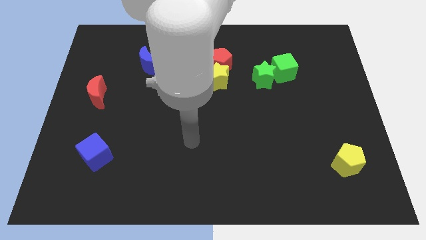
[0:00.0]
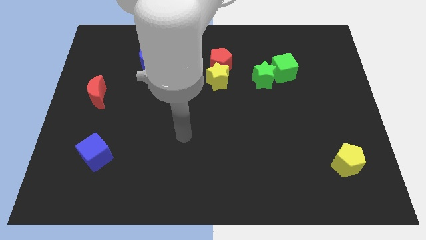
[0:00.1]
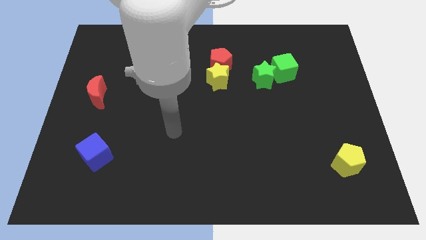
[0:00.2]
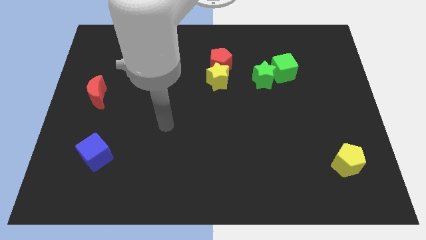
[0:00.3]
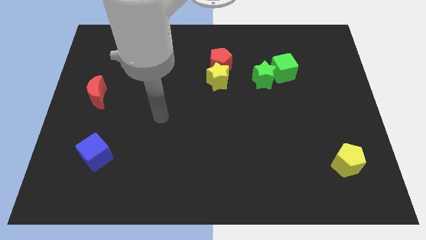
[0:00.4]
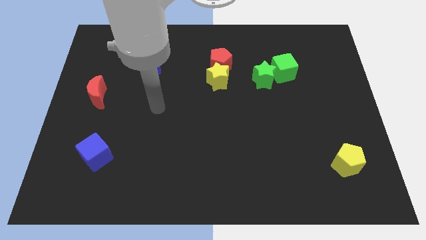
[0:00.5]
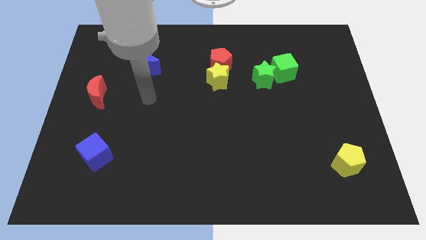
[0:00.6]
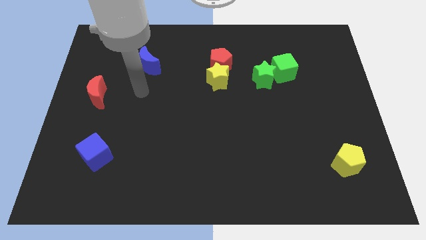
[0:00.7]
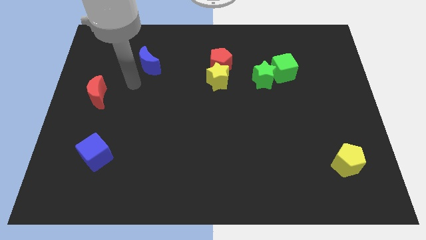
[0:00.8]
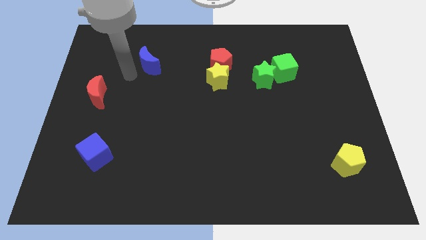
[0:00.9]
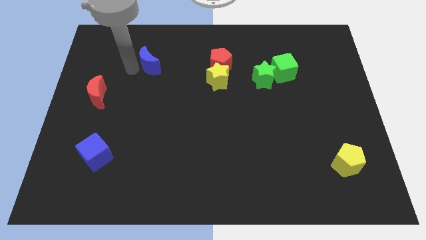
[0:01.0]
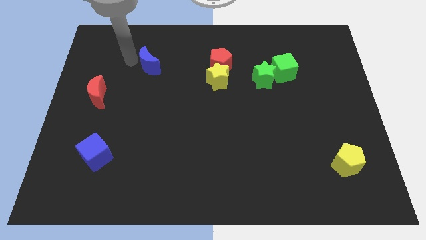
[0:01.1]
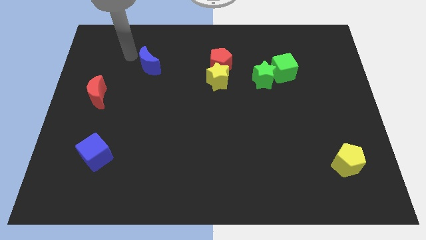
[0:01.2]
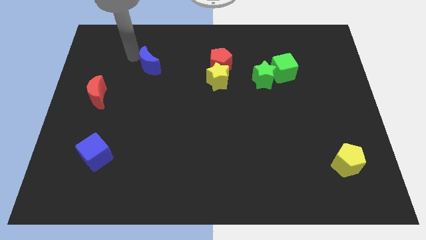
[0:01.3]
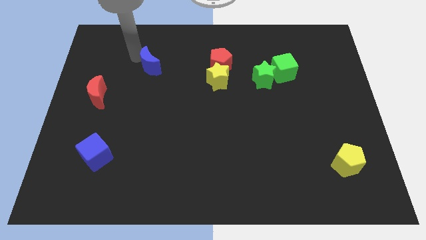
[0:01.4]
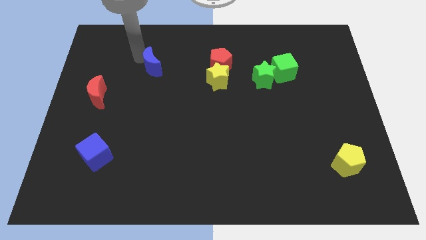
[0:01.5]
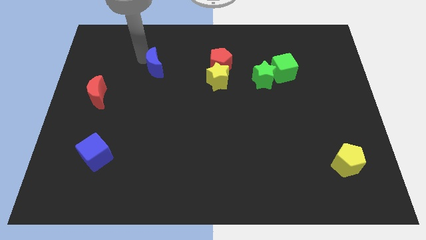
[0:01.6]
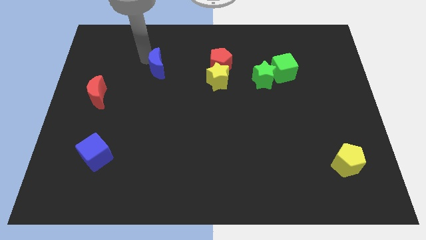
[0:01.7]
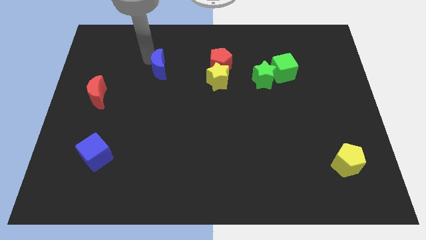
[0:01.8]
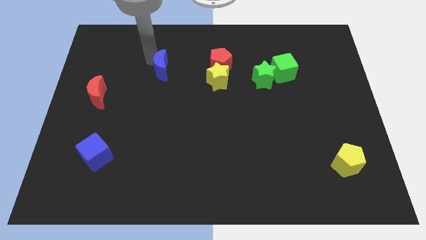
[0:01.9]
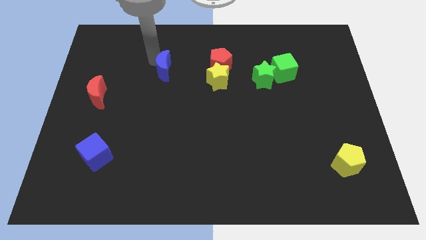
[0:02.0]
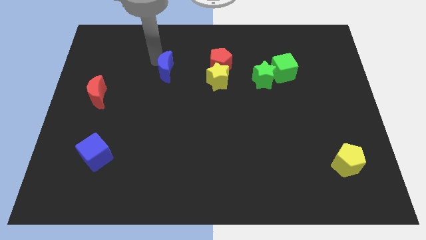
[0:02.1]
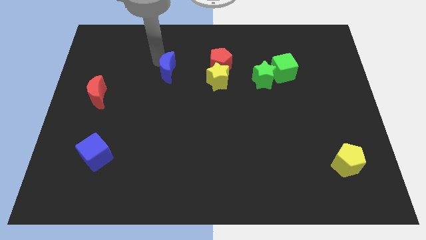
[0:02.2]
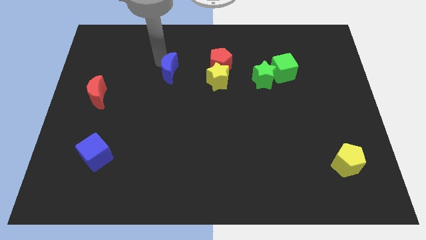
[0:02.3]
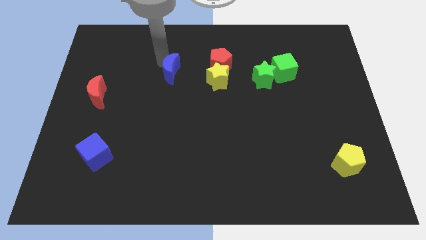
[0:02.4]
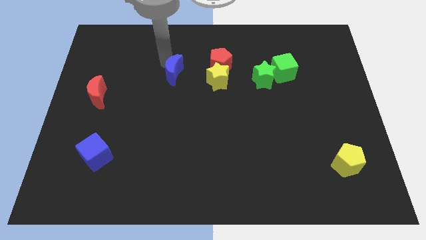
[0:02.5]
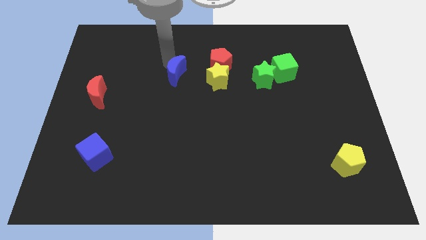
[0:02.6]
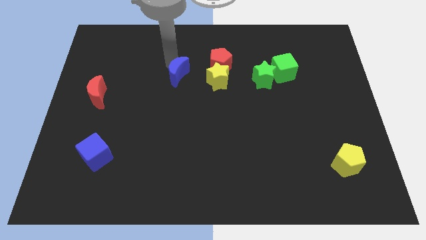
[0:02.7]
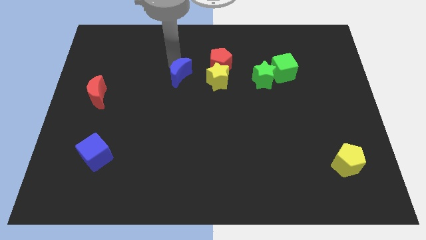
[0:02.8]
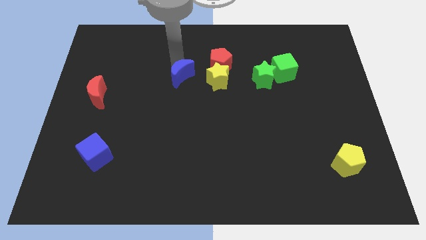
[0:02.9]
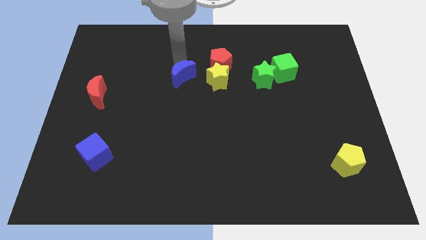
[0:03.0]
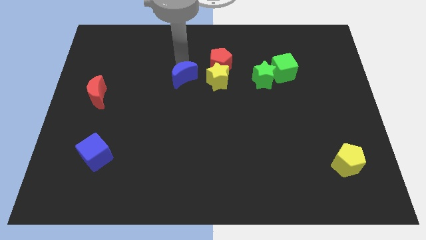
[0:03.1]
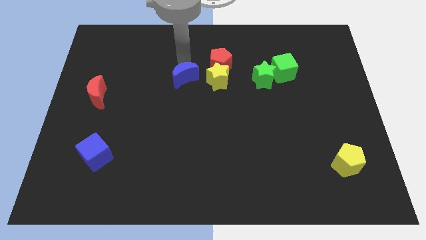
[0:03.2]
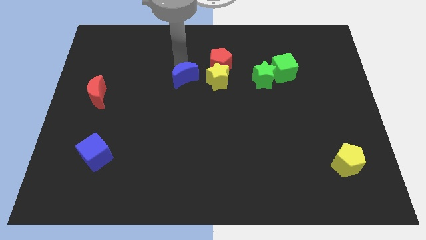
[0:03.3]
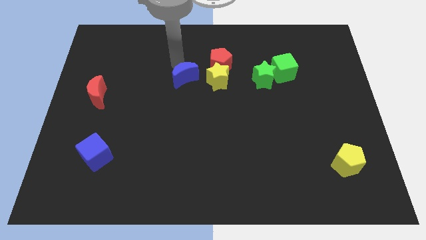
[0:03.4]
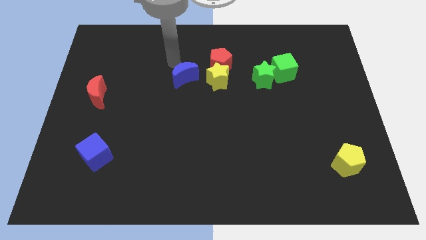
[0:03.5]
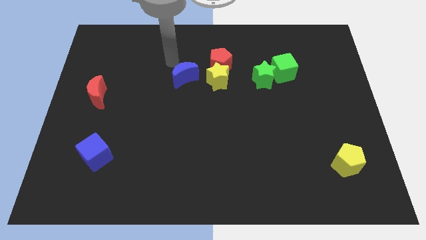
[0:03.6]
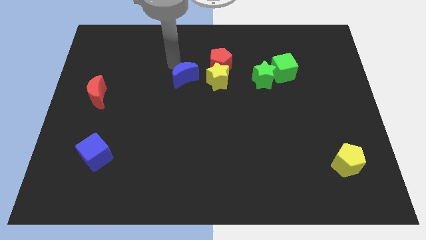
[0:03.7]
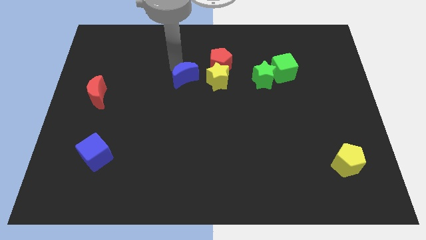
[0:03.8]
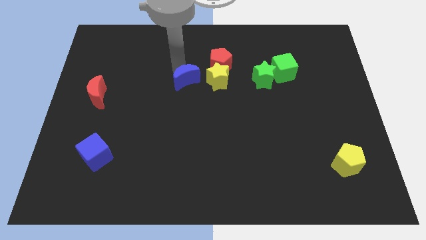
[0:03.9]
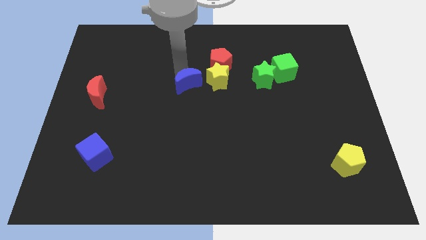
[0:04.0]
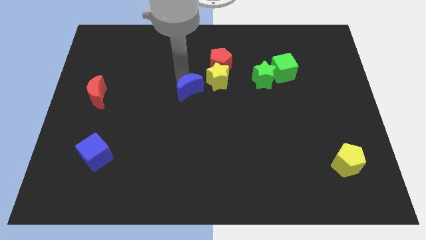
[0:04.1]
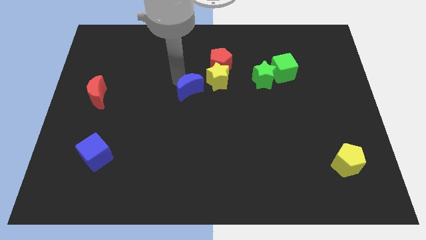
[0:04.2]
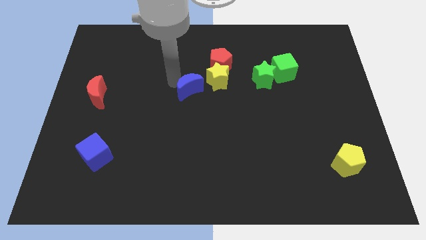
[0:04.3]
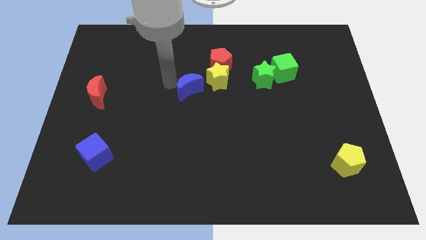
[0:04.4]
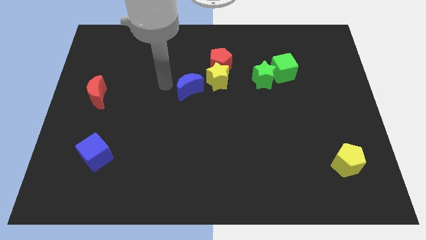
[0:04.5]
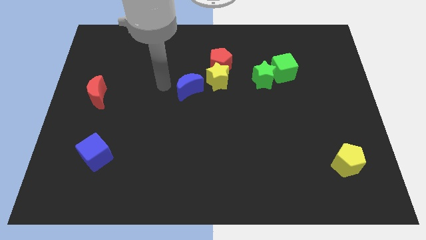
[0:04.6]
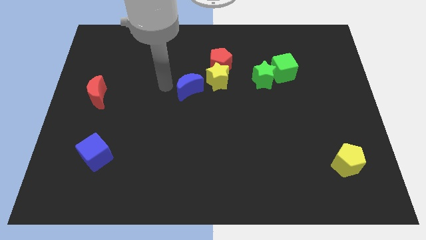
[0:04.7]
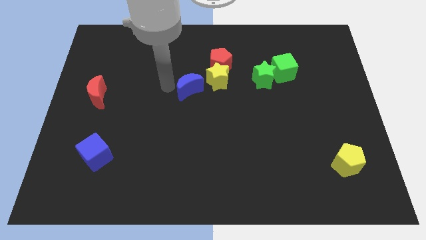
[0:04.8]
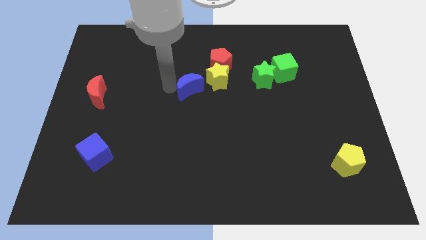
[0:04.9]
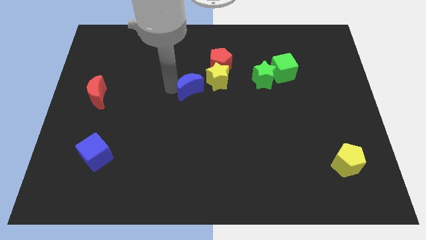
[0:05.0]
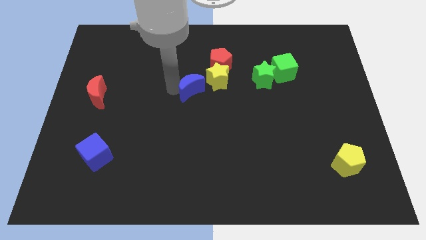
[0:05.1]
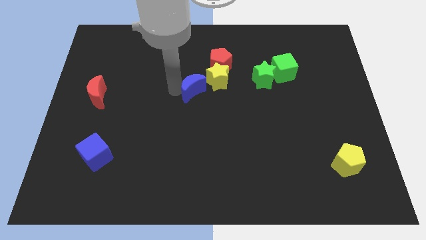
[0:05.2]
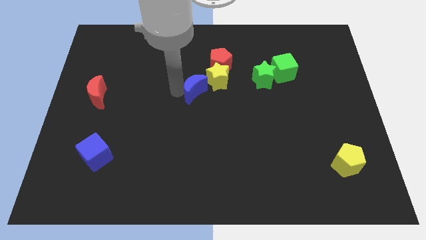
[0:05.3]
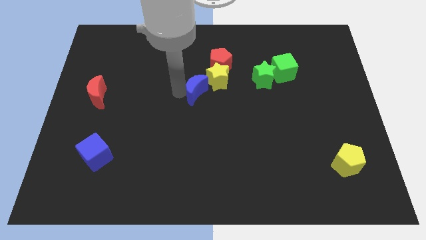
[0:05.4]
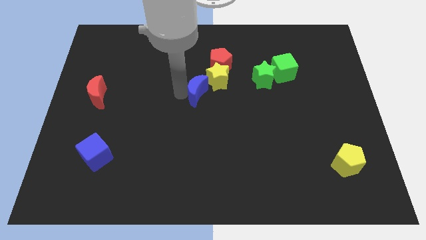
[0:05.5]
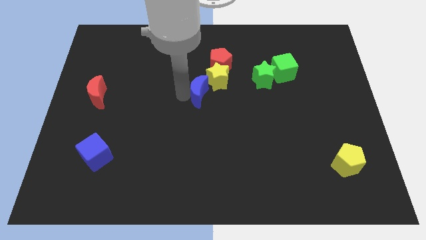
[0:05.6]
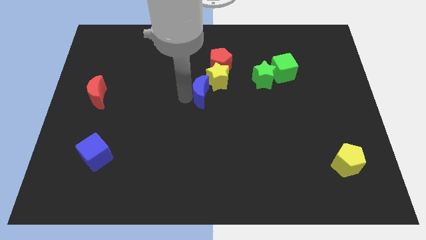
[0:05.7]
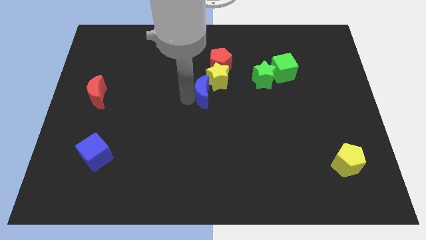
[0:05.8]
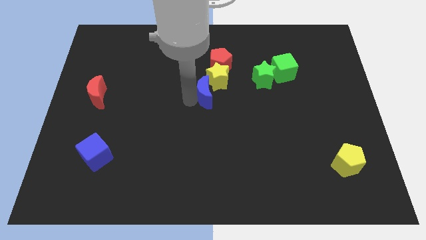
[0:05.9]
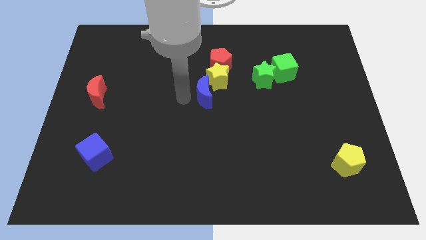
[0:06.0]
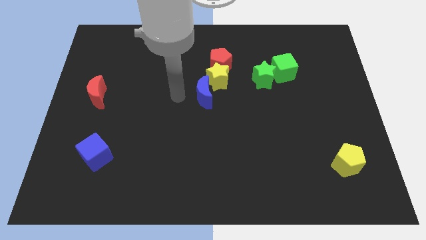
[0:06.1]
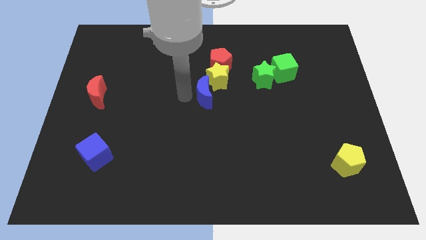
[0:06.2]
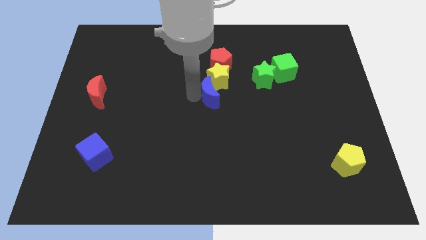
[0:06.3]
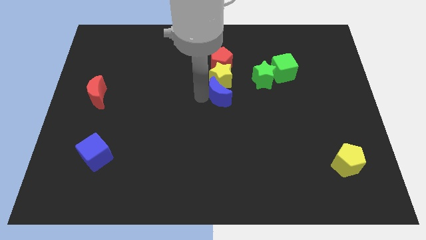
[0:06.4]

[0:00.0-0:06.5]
put the blue moon diagonally down and to the right of the yellow star

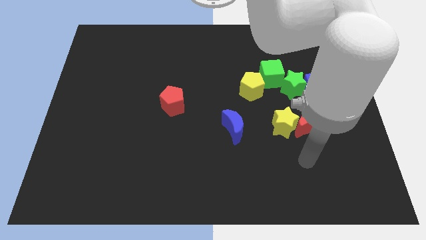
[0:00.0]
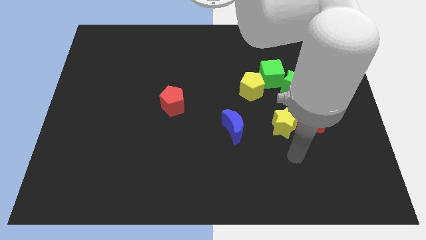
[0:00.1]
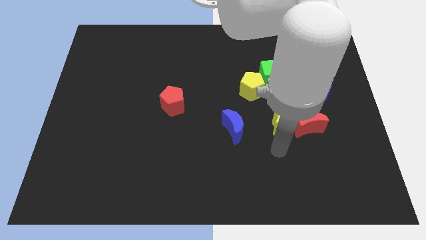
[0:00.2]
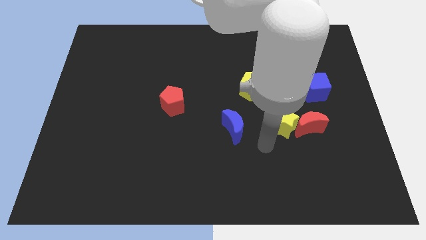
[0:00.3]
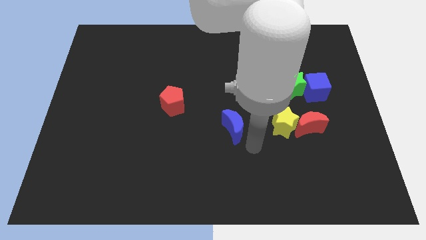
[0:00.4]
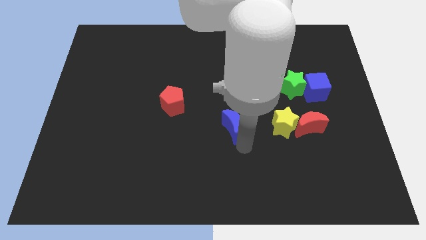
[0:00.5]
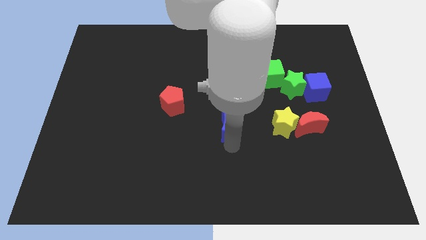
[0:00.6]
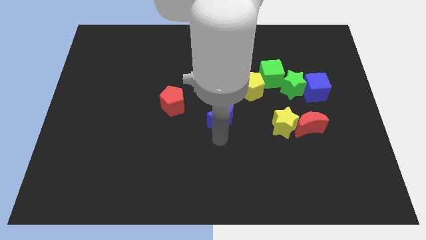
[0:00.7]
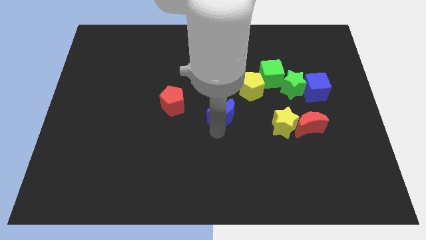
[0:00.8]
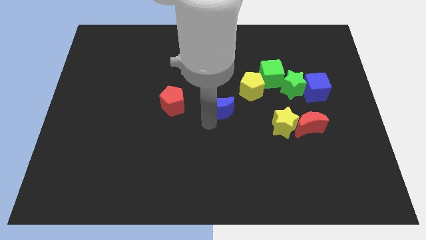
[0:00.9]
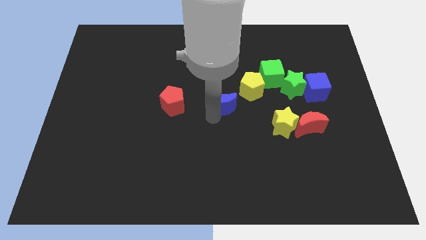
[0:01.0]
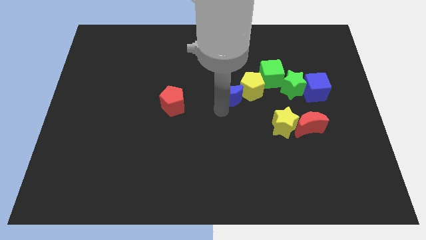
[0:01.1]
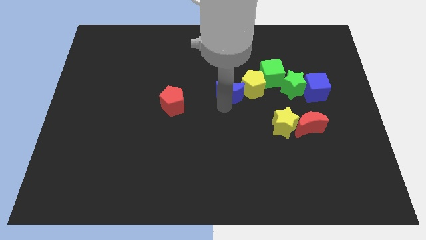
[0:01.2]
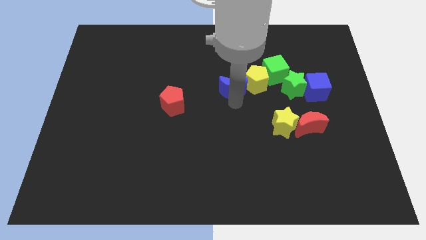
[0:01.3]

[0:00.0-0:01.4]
move the yellow pentagon to the top left of the green star
